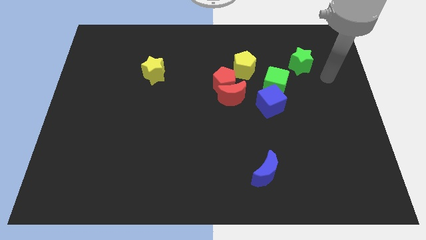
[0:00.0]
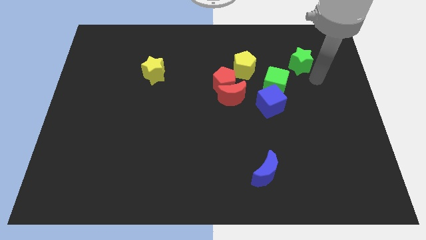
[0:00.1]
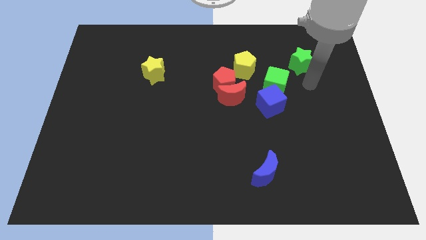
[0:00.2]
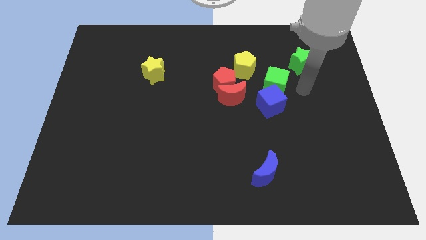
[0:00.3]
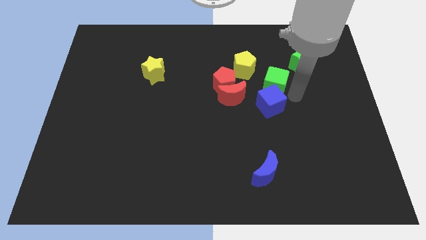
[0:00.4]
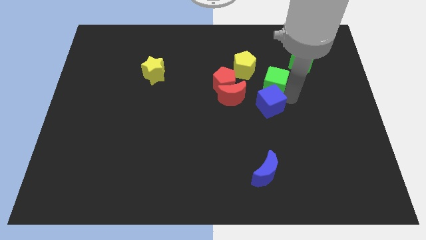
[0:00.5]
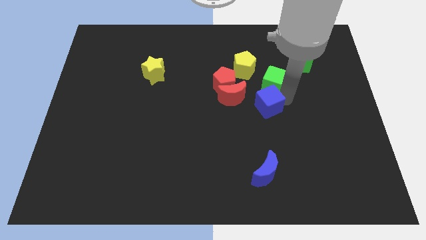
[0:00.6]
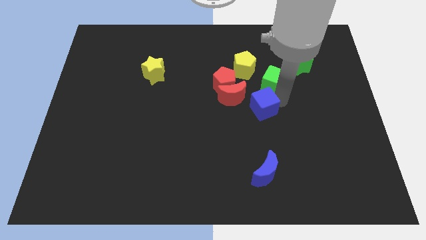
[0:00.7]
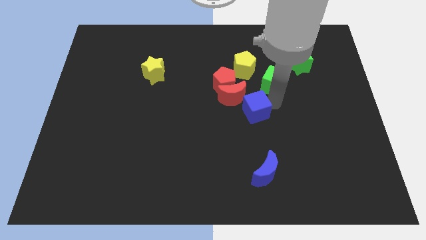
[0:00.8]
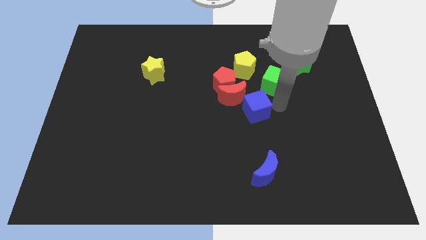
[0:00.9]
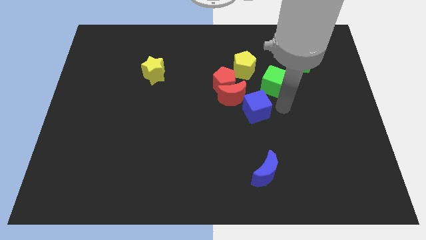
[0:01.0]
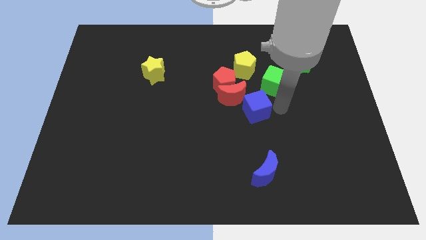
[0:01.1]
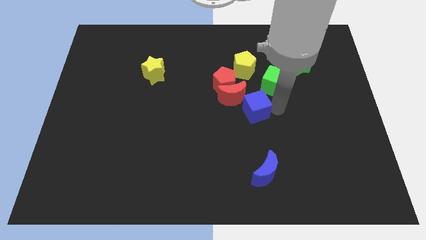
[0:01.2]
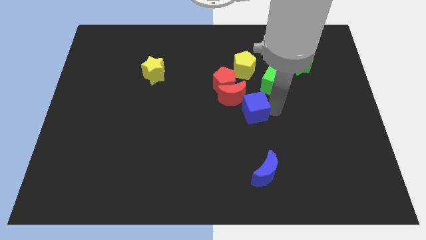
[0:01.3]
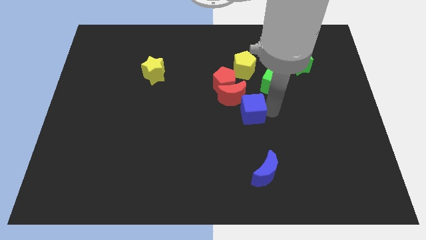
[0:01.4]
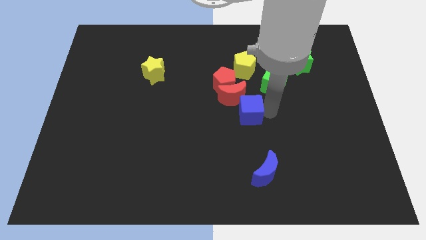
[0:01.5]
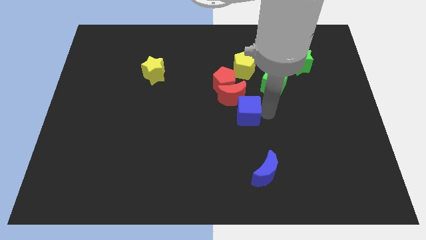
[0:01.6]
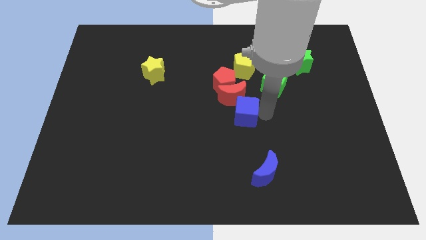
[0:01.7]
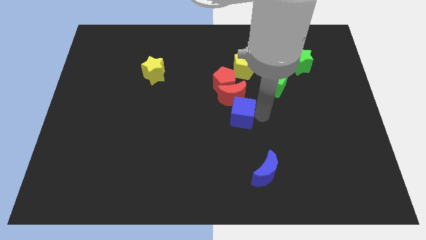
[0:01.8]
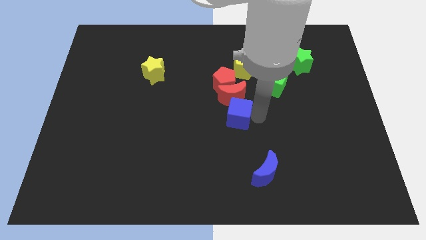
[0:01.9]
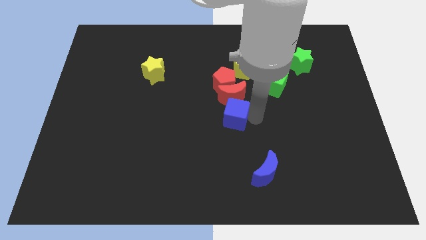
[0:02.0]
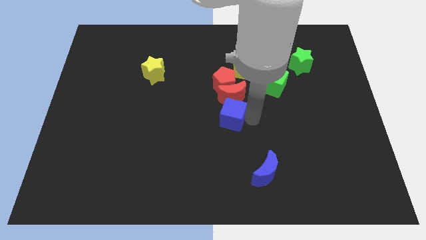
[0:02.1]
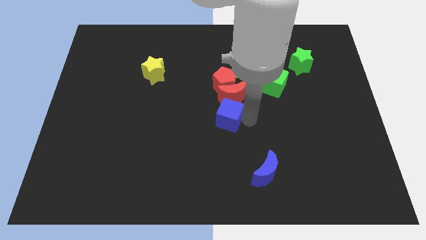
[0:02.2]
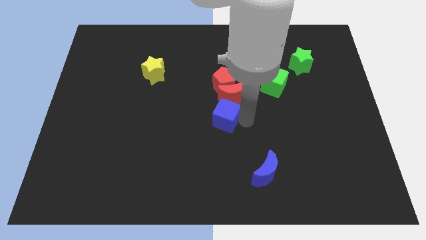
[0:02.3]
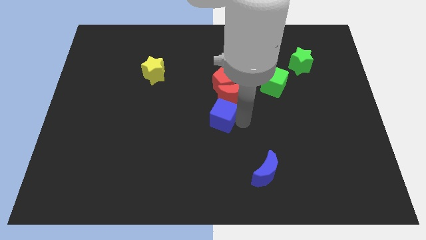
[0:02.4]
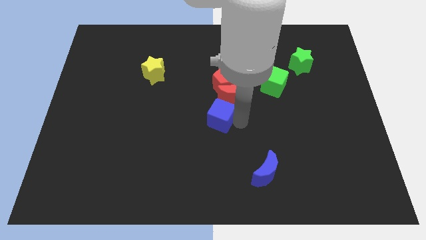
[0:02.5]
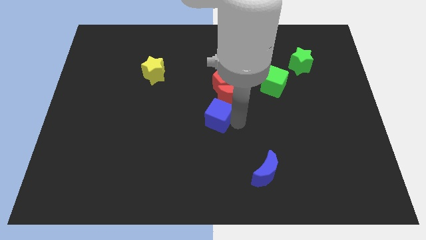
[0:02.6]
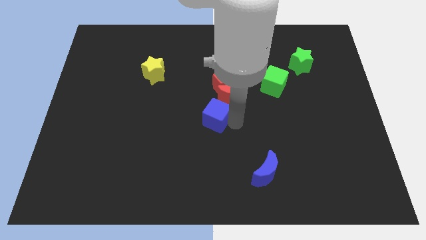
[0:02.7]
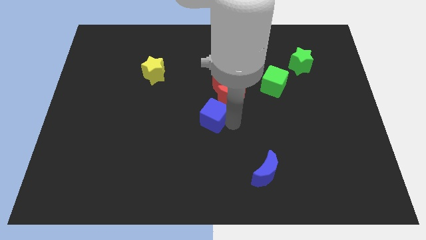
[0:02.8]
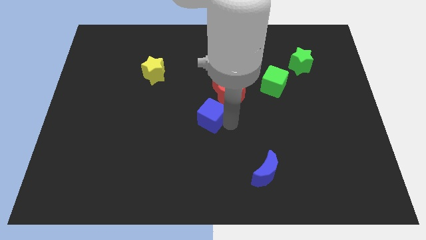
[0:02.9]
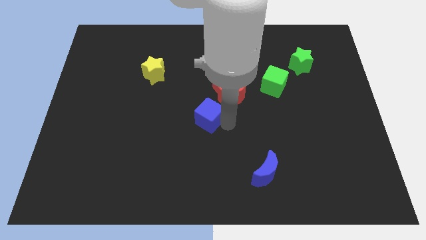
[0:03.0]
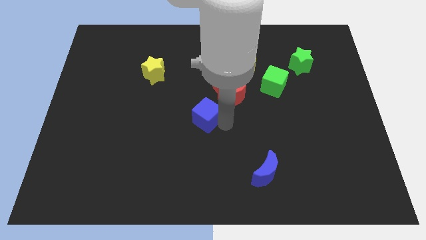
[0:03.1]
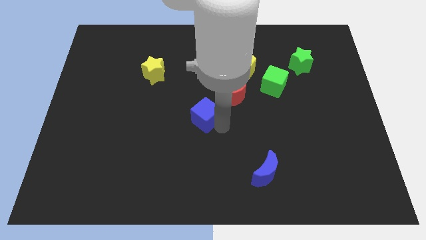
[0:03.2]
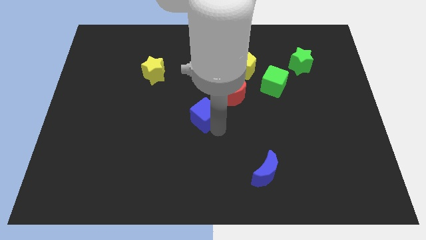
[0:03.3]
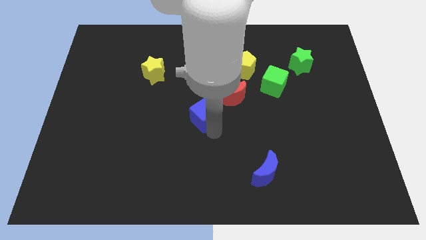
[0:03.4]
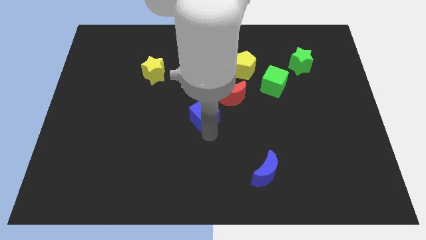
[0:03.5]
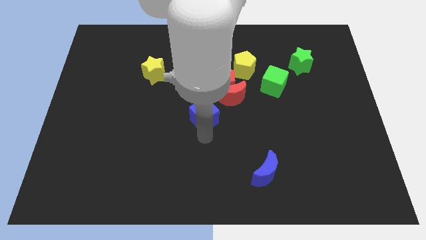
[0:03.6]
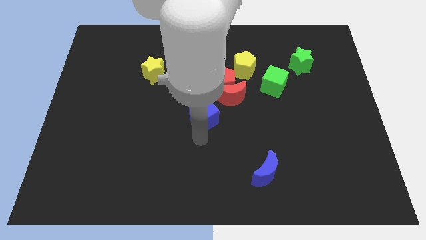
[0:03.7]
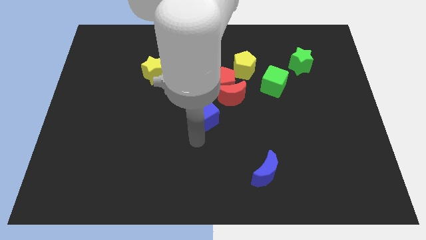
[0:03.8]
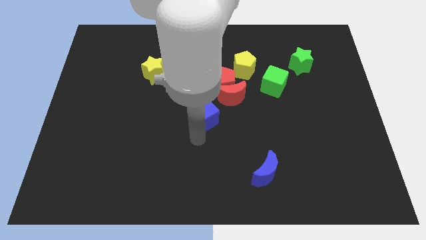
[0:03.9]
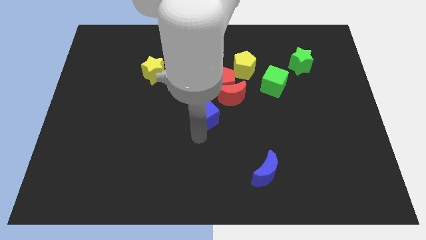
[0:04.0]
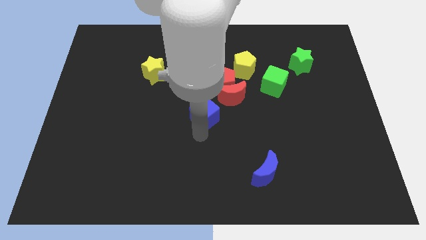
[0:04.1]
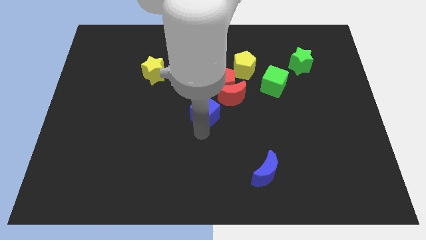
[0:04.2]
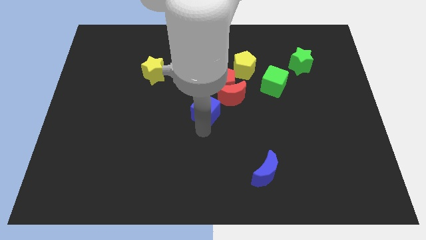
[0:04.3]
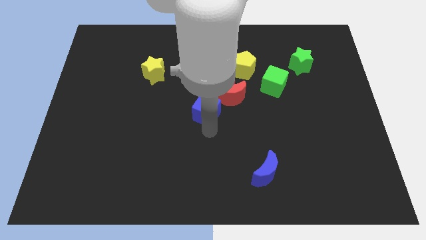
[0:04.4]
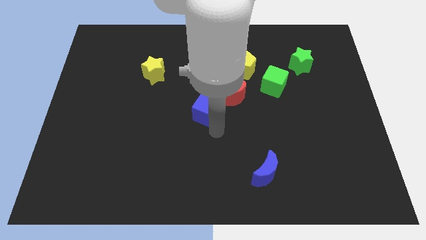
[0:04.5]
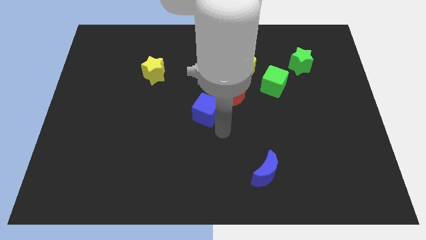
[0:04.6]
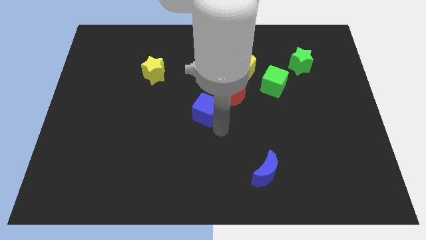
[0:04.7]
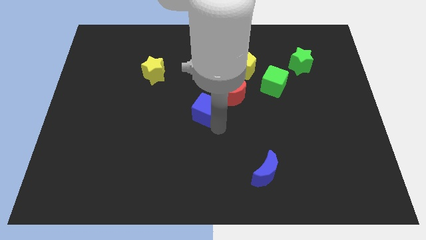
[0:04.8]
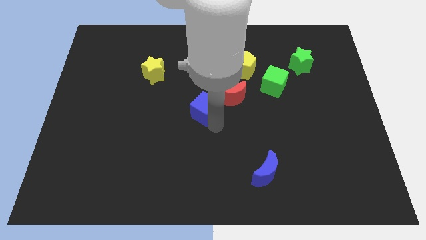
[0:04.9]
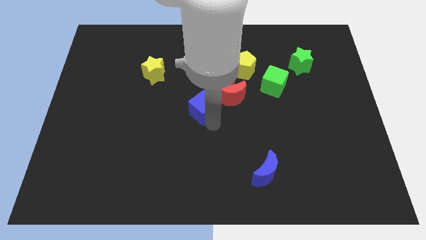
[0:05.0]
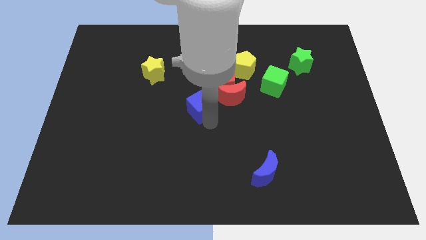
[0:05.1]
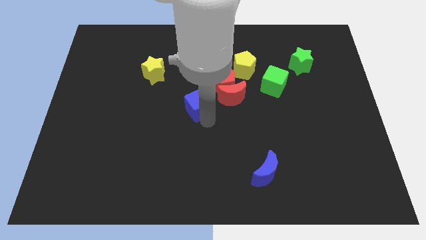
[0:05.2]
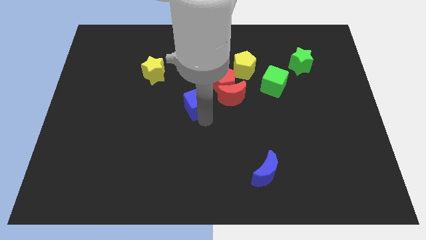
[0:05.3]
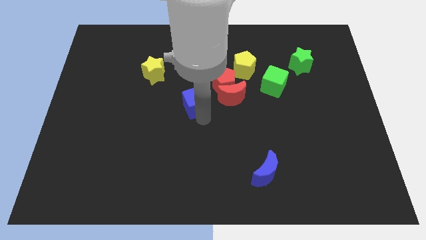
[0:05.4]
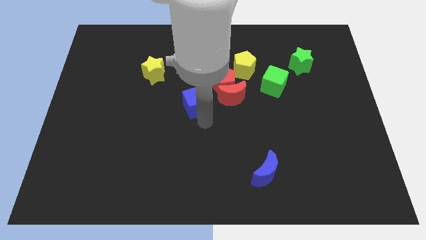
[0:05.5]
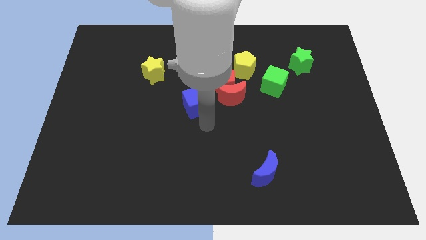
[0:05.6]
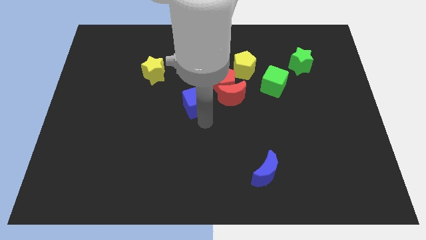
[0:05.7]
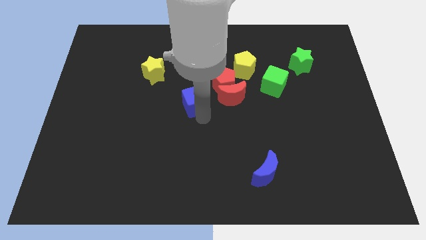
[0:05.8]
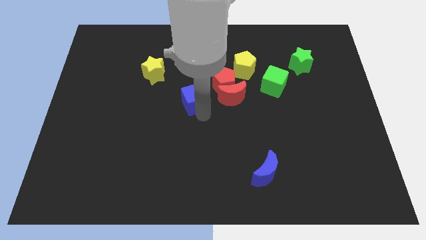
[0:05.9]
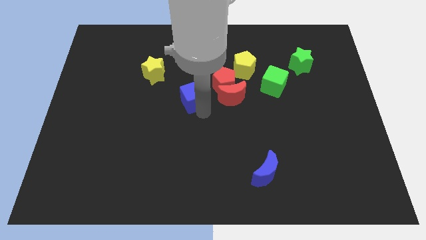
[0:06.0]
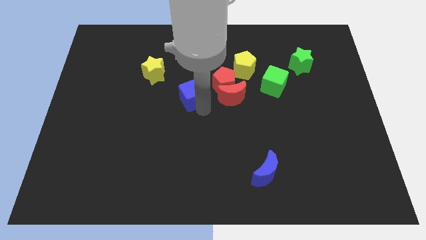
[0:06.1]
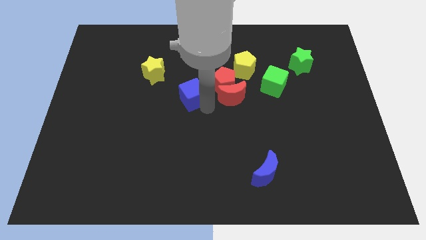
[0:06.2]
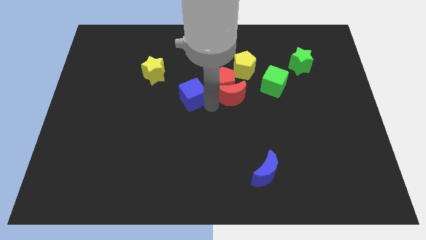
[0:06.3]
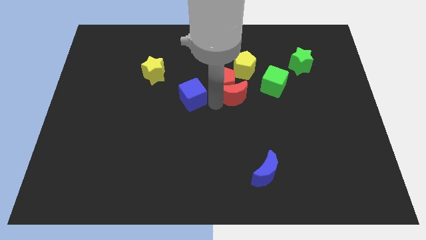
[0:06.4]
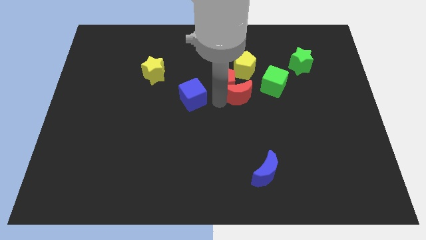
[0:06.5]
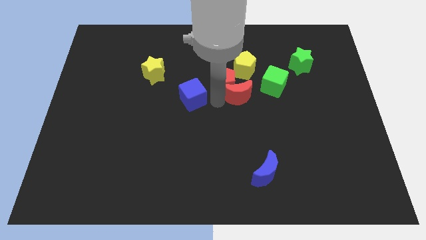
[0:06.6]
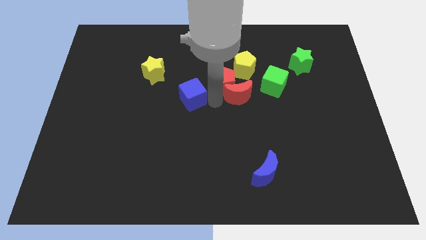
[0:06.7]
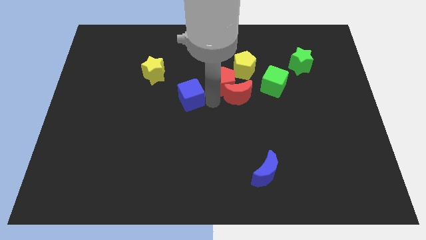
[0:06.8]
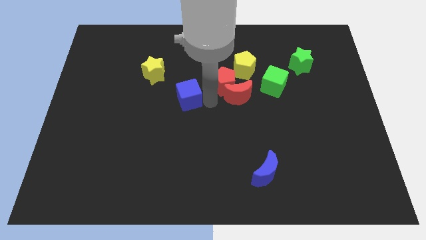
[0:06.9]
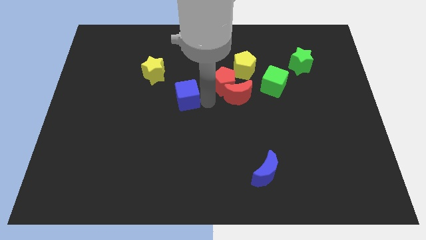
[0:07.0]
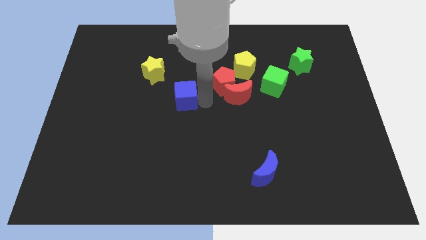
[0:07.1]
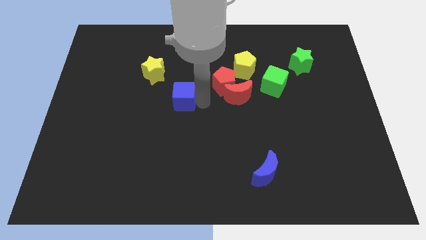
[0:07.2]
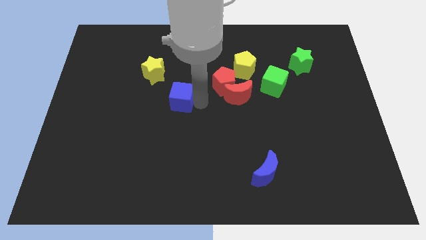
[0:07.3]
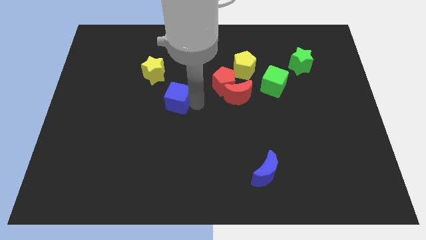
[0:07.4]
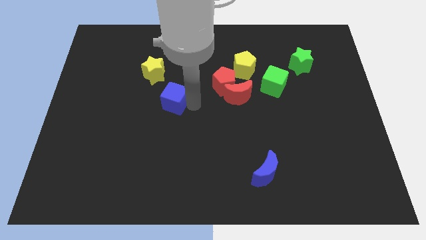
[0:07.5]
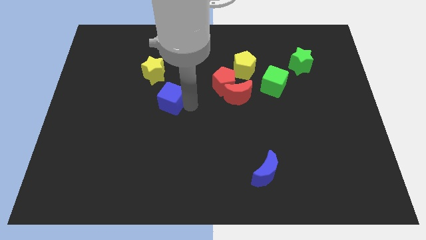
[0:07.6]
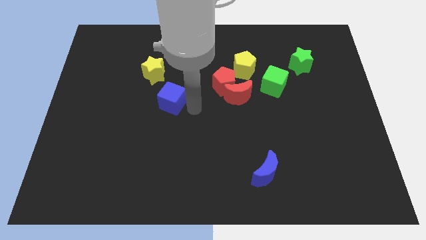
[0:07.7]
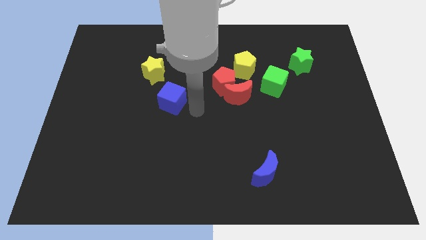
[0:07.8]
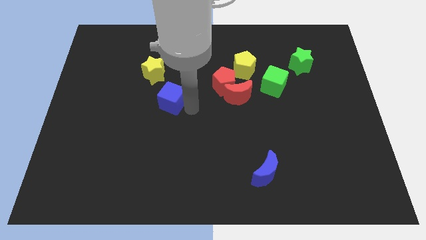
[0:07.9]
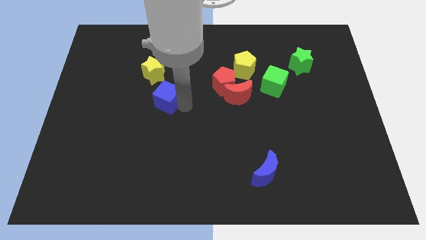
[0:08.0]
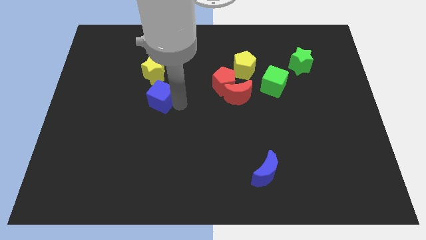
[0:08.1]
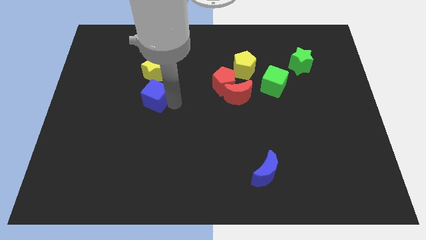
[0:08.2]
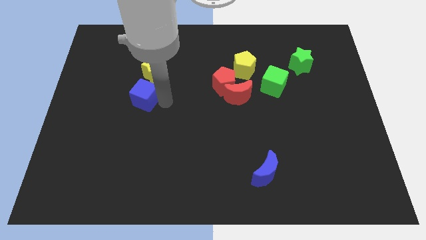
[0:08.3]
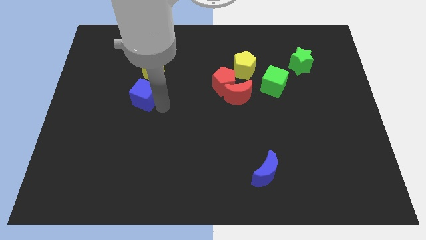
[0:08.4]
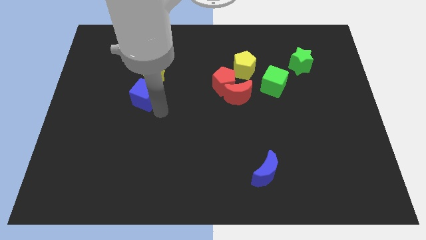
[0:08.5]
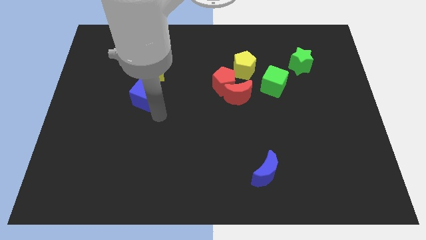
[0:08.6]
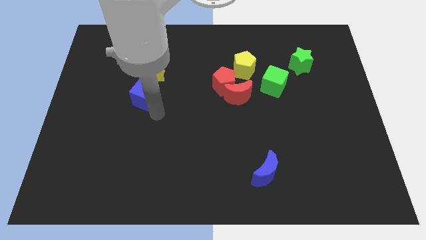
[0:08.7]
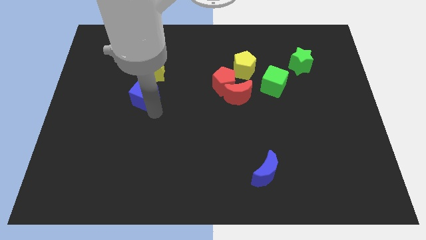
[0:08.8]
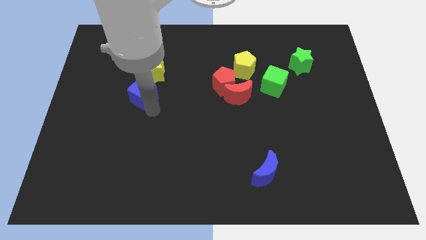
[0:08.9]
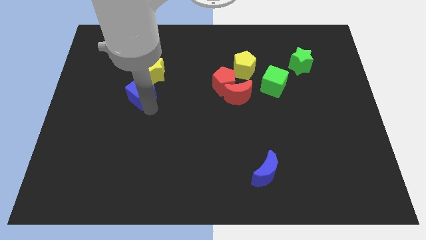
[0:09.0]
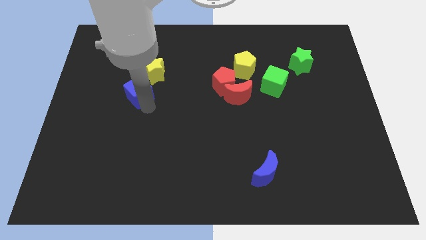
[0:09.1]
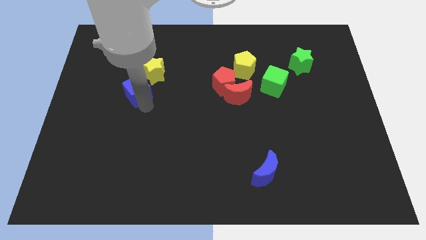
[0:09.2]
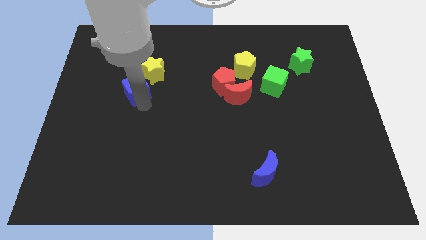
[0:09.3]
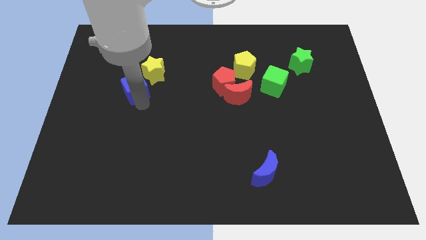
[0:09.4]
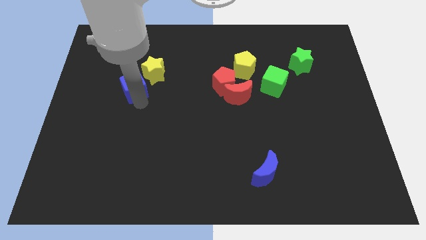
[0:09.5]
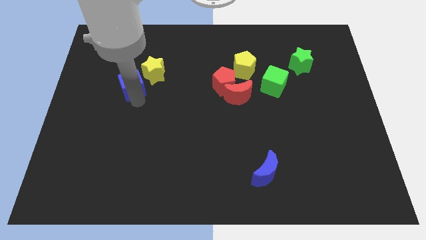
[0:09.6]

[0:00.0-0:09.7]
move the blue cube left of the yellow star
